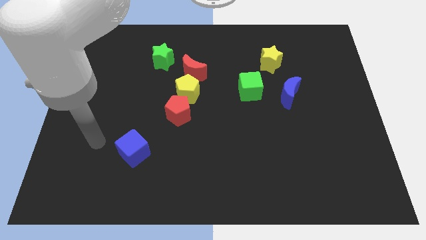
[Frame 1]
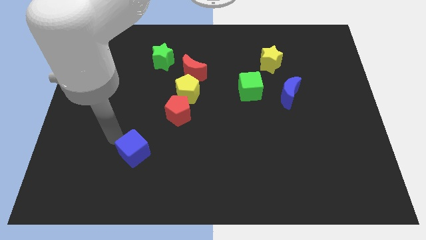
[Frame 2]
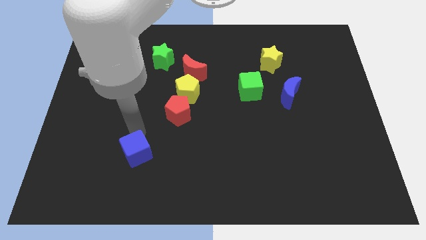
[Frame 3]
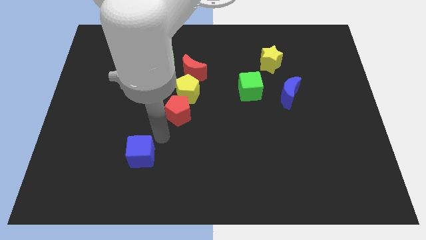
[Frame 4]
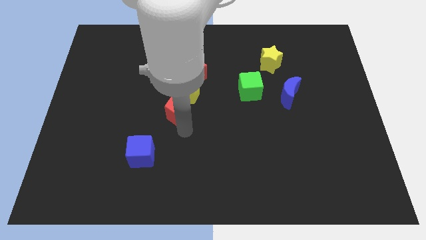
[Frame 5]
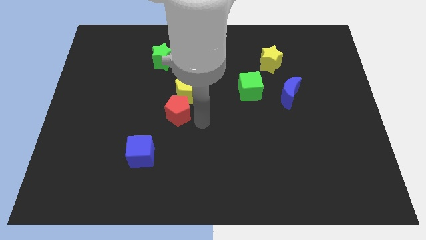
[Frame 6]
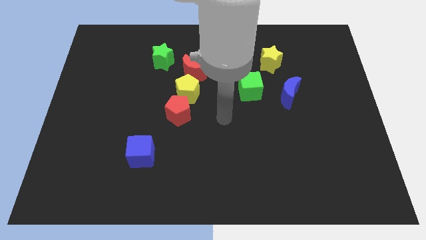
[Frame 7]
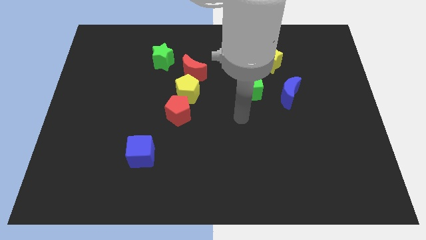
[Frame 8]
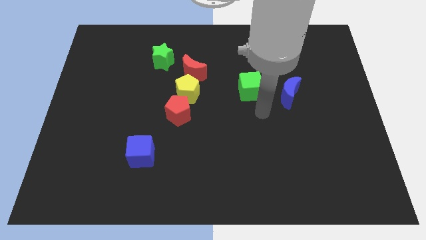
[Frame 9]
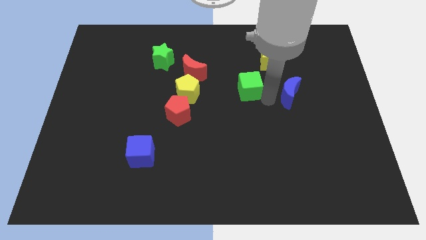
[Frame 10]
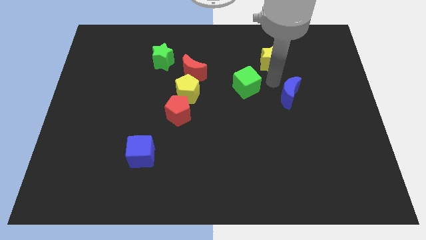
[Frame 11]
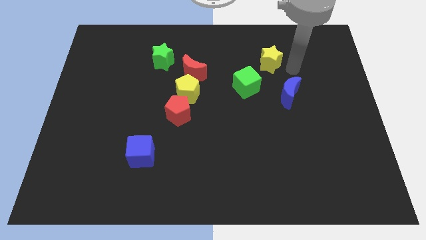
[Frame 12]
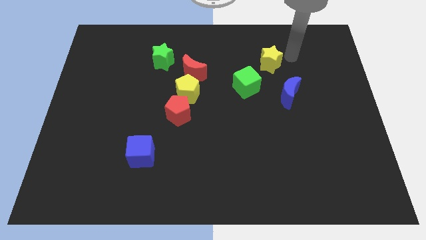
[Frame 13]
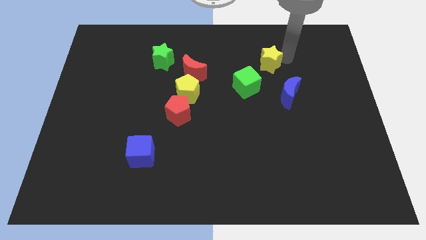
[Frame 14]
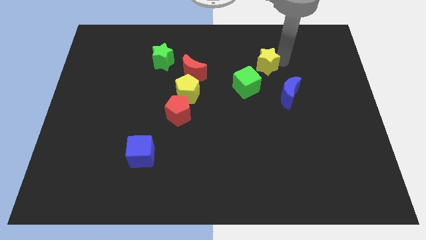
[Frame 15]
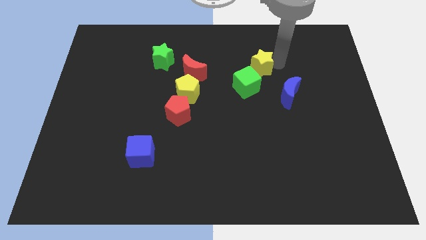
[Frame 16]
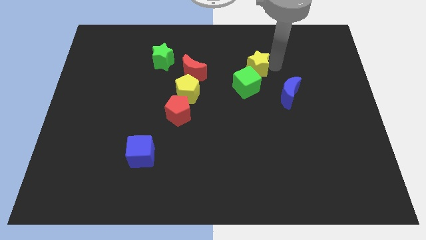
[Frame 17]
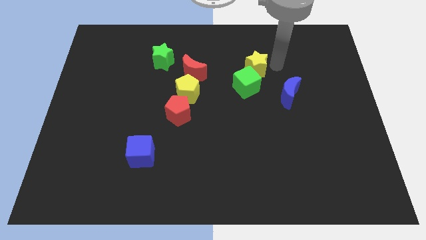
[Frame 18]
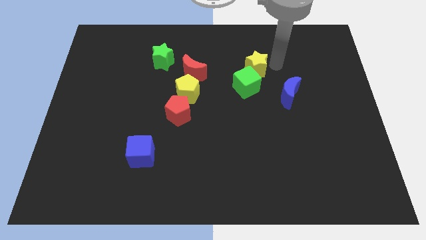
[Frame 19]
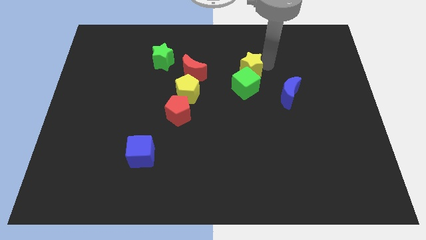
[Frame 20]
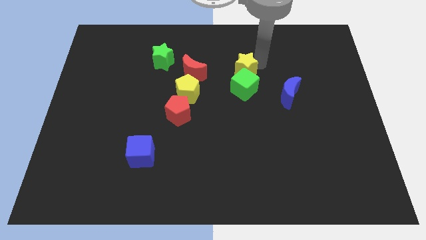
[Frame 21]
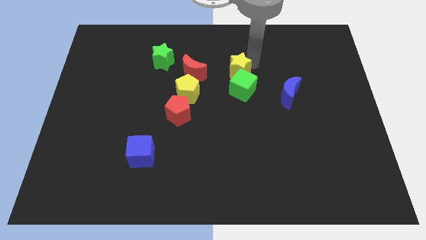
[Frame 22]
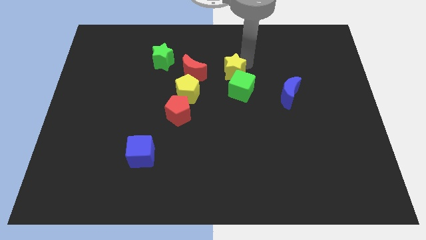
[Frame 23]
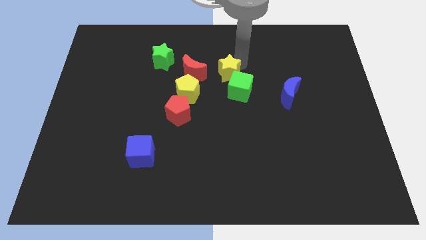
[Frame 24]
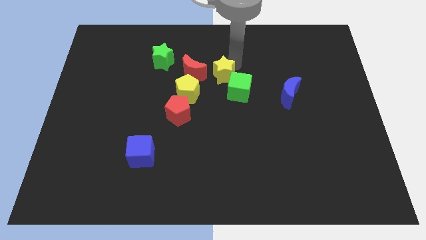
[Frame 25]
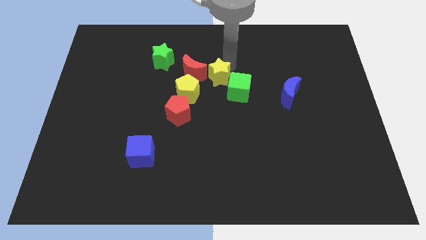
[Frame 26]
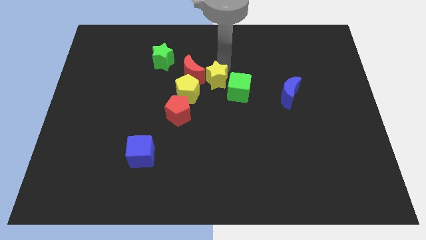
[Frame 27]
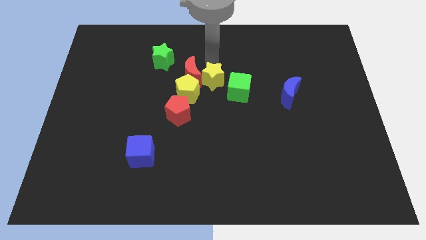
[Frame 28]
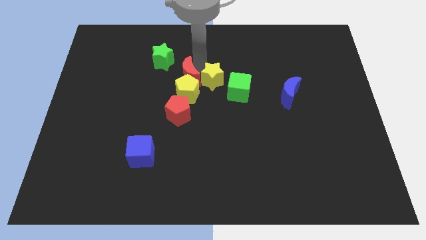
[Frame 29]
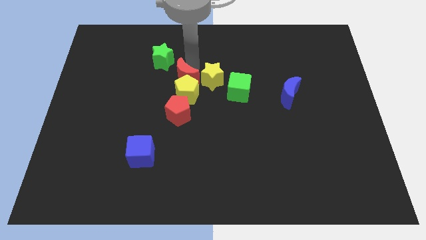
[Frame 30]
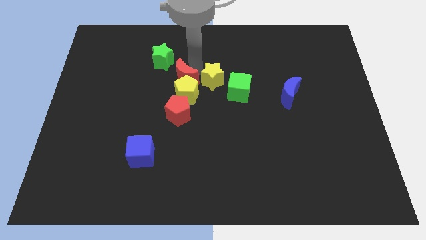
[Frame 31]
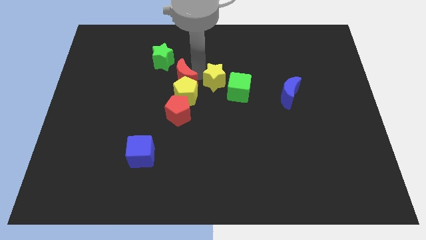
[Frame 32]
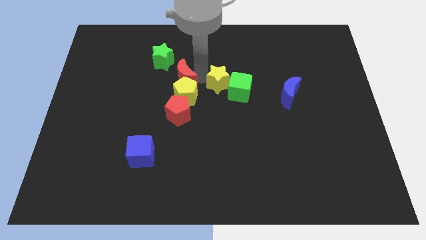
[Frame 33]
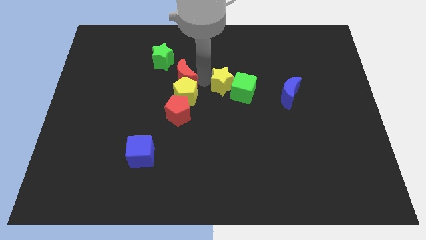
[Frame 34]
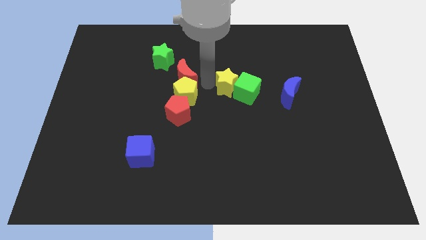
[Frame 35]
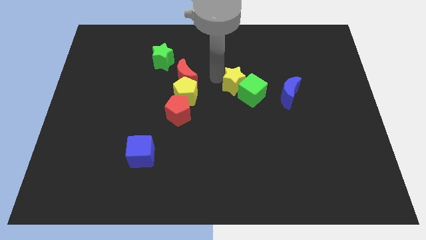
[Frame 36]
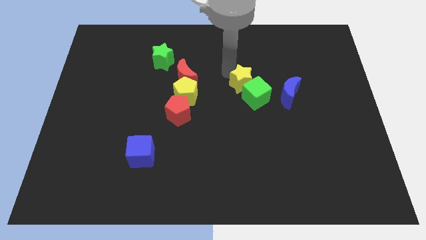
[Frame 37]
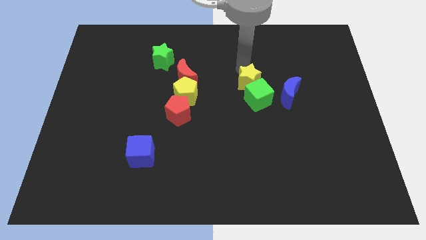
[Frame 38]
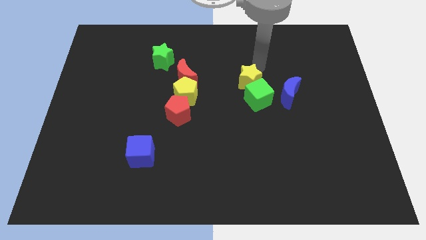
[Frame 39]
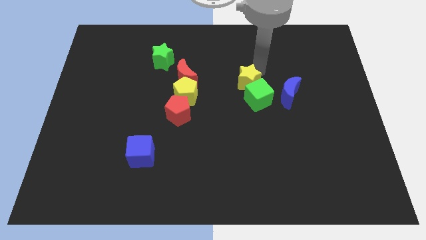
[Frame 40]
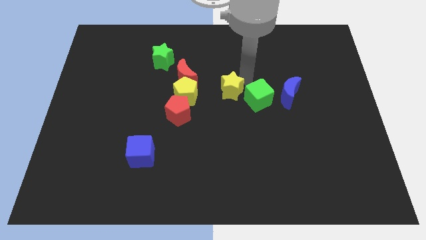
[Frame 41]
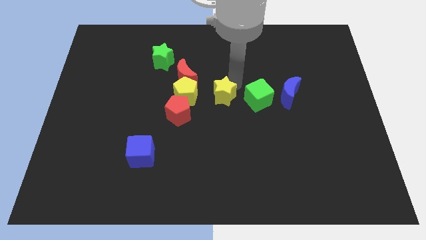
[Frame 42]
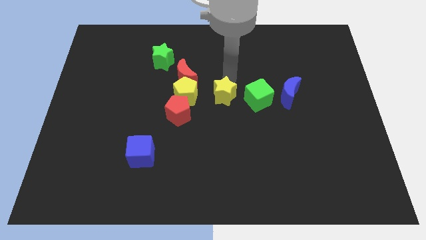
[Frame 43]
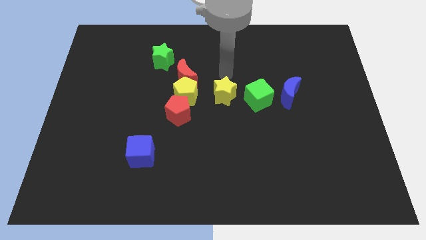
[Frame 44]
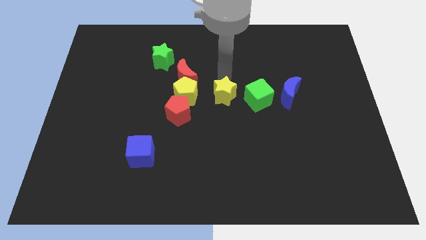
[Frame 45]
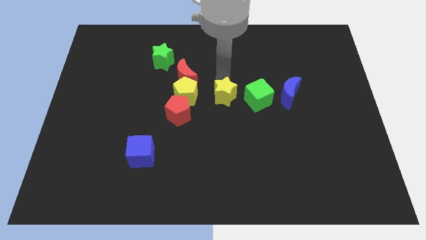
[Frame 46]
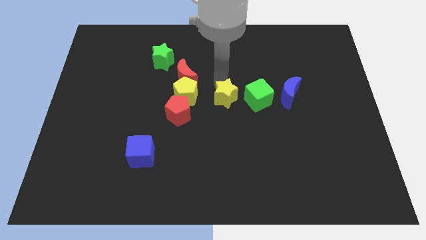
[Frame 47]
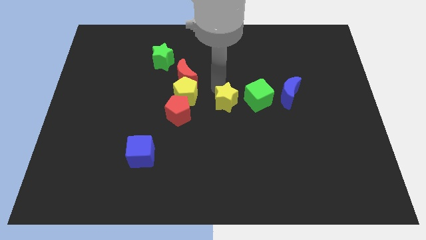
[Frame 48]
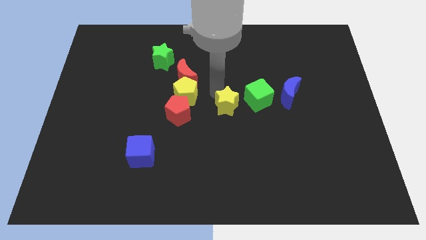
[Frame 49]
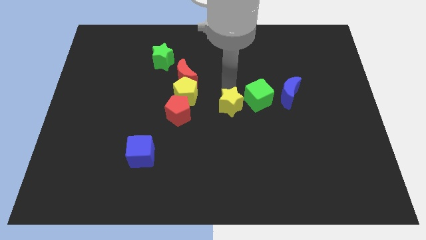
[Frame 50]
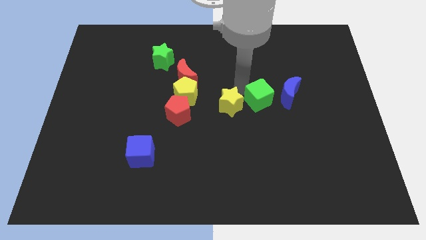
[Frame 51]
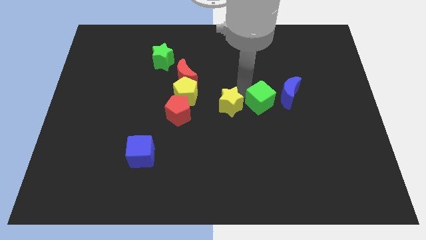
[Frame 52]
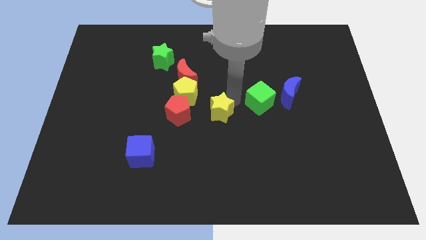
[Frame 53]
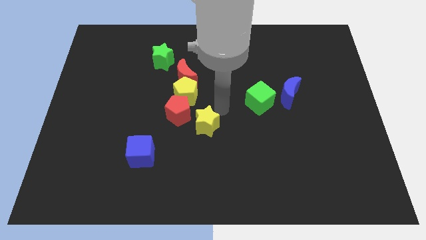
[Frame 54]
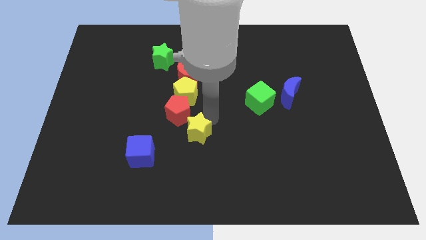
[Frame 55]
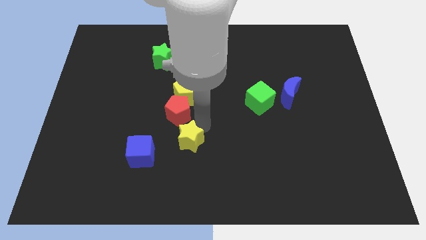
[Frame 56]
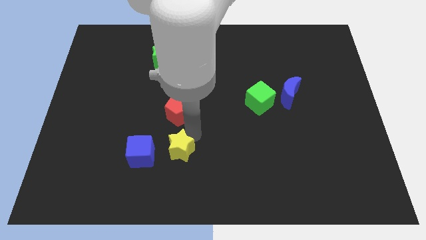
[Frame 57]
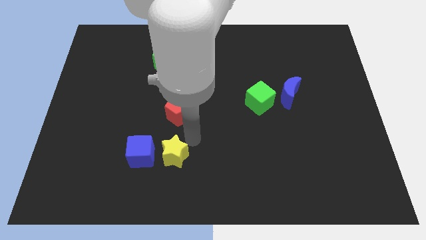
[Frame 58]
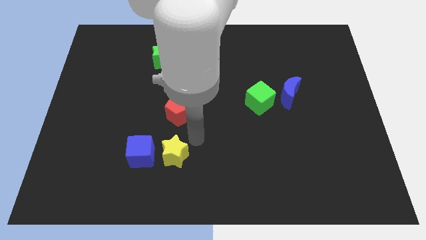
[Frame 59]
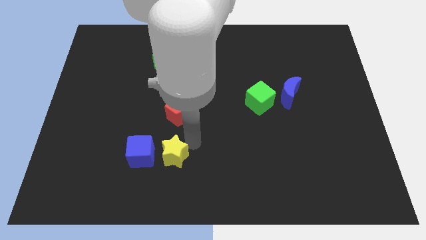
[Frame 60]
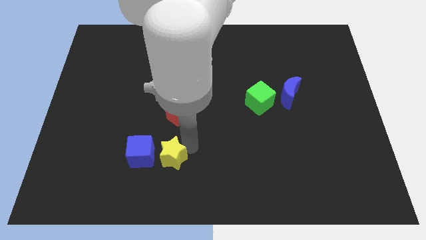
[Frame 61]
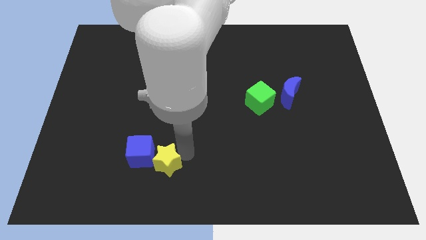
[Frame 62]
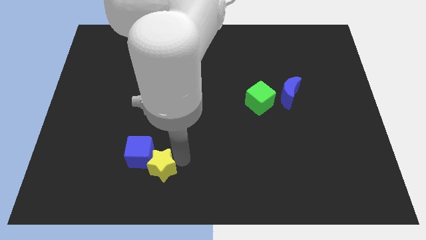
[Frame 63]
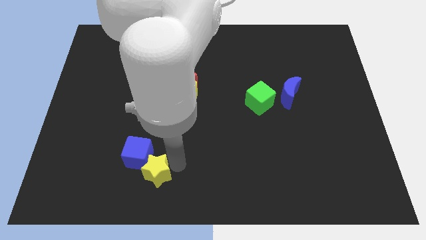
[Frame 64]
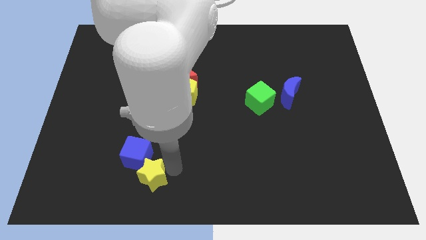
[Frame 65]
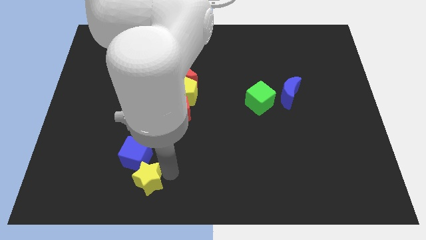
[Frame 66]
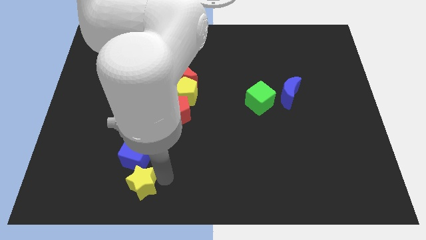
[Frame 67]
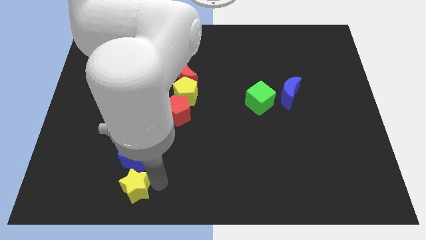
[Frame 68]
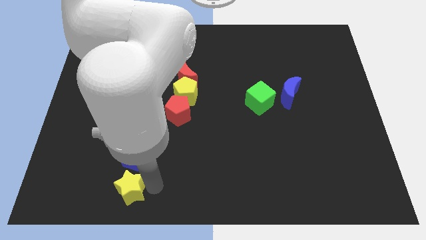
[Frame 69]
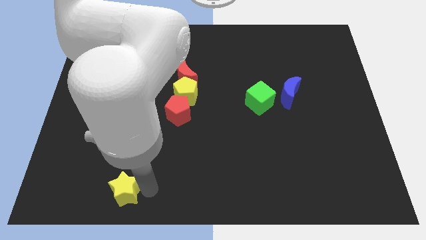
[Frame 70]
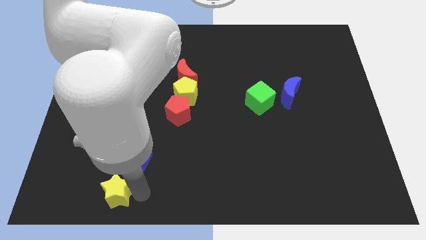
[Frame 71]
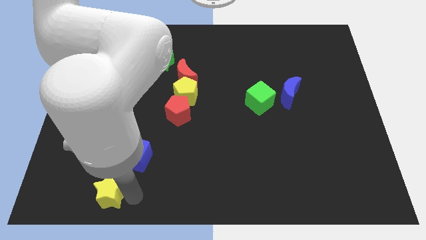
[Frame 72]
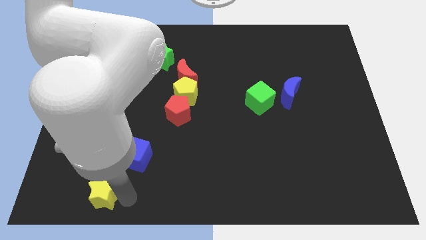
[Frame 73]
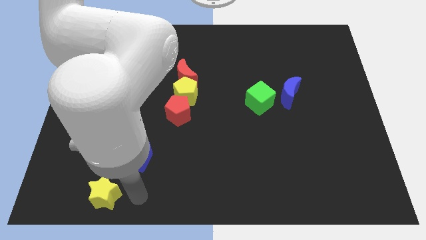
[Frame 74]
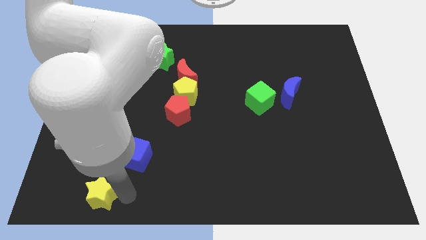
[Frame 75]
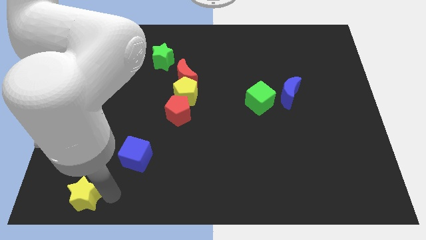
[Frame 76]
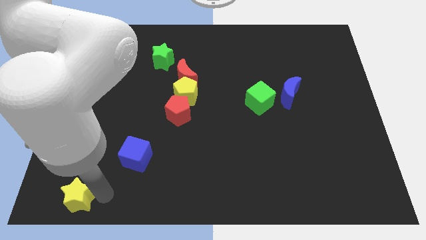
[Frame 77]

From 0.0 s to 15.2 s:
push the yellow star to the bottom left
